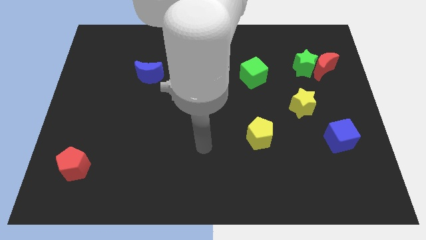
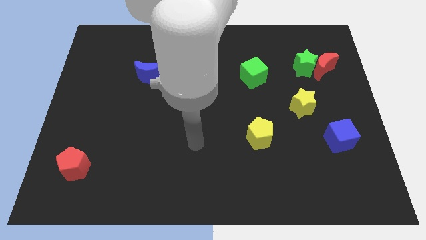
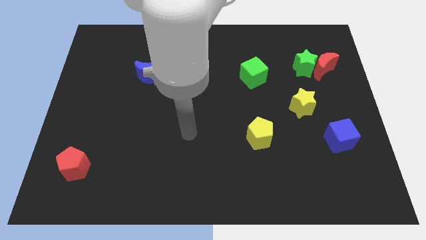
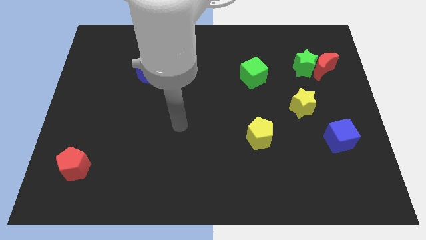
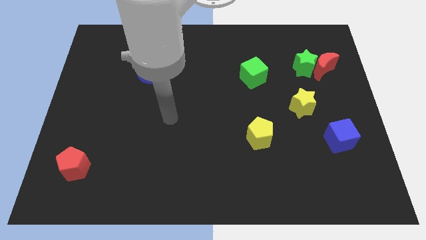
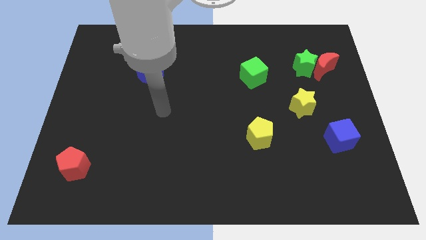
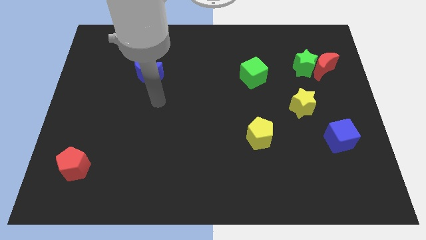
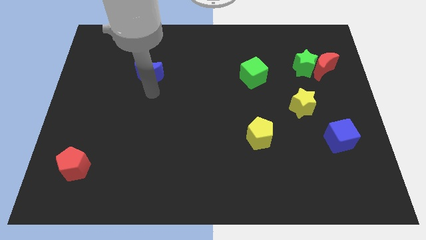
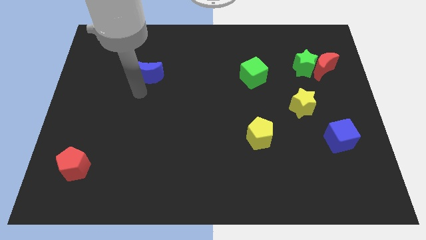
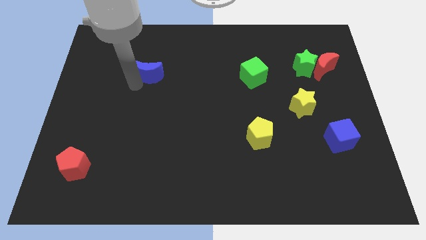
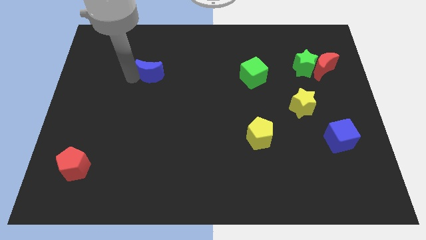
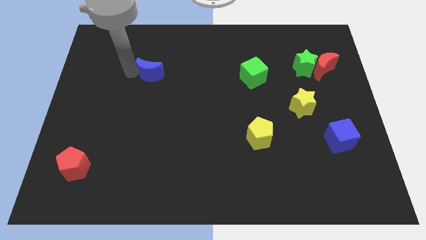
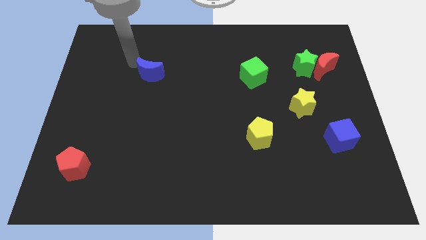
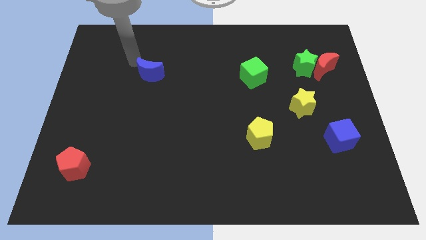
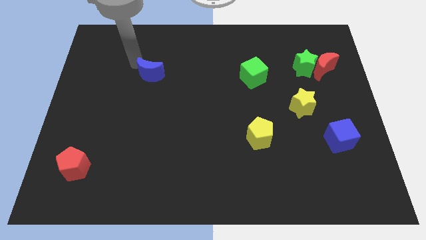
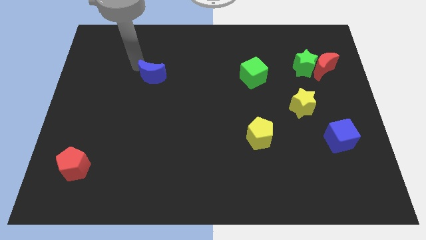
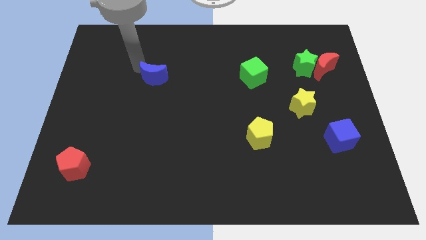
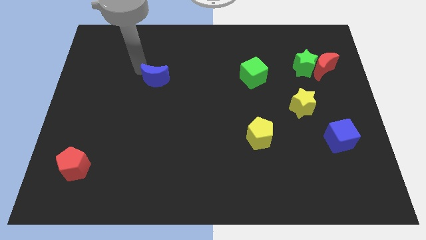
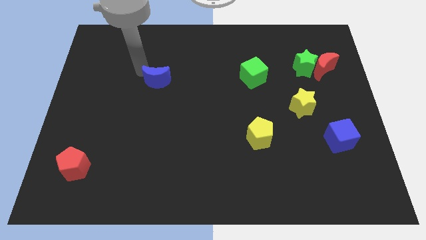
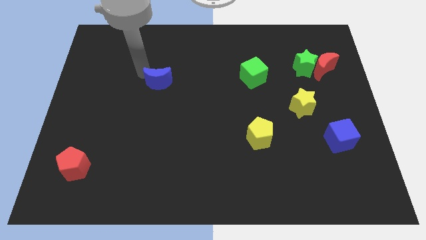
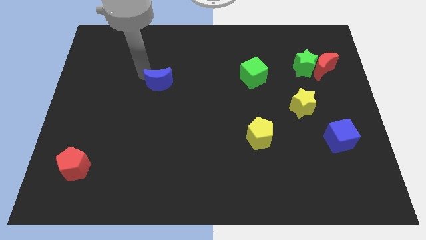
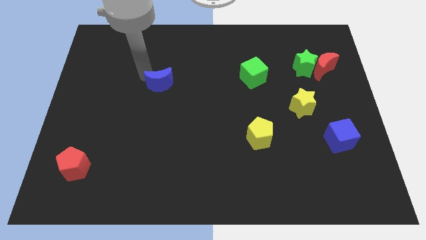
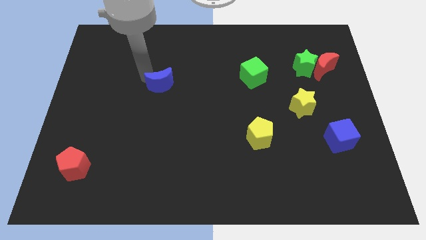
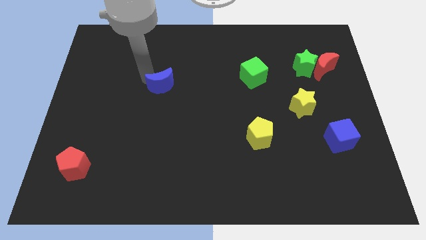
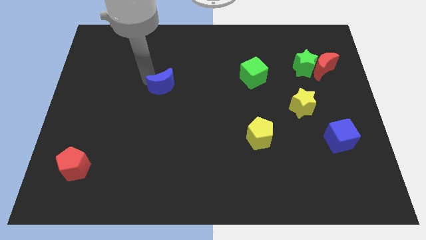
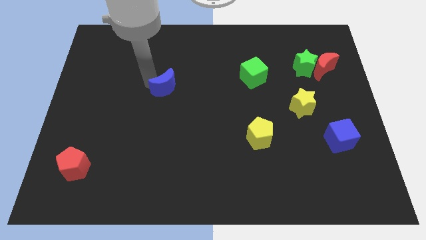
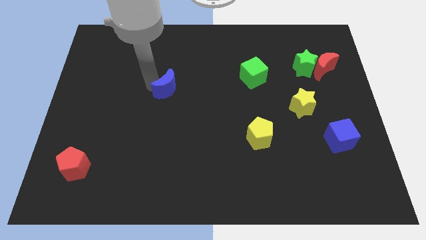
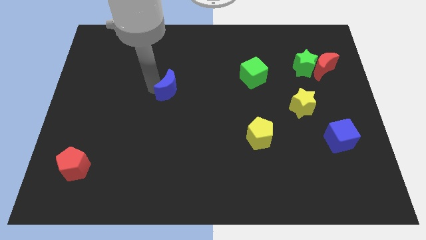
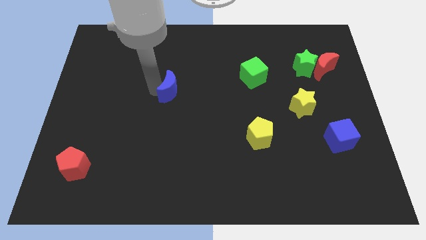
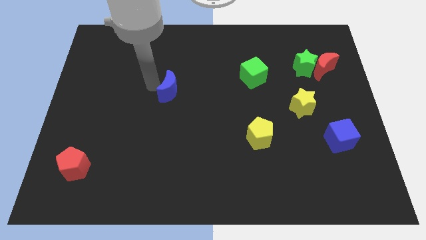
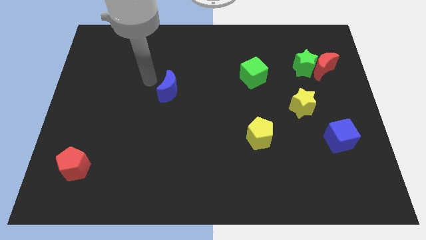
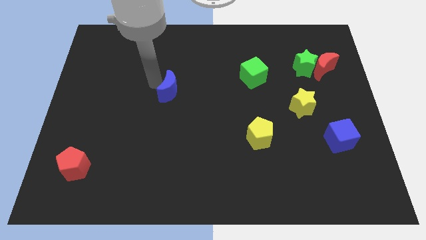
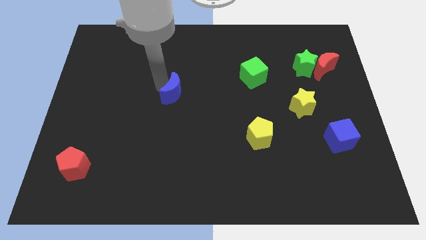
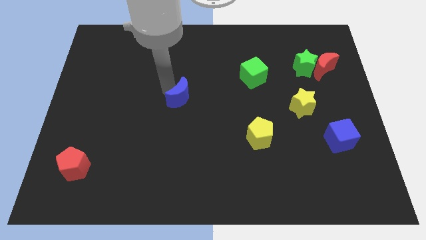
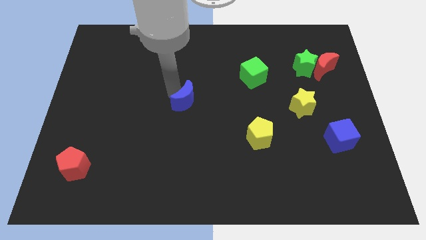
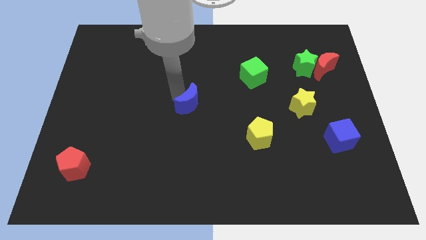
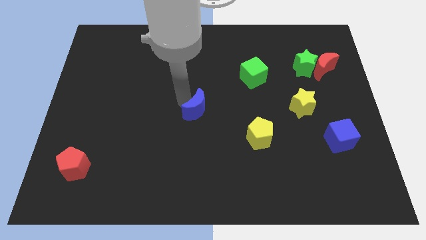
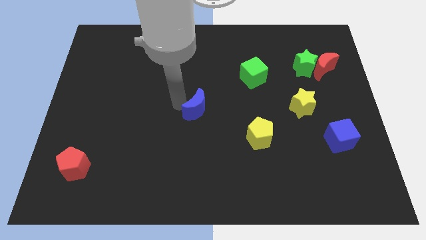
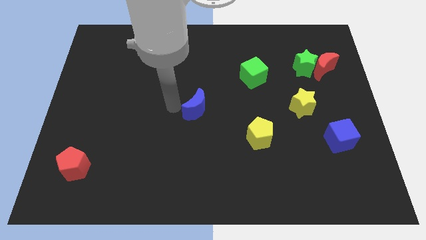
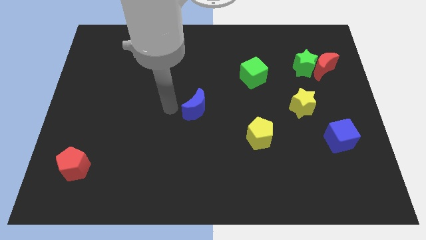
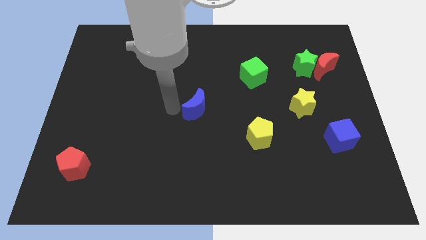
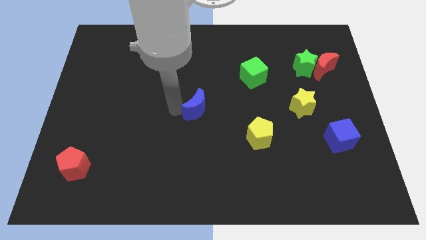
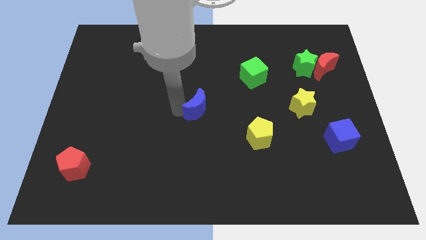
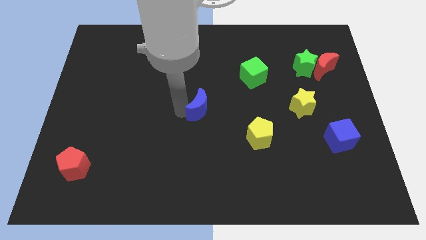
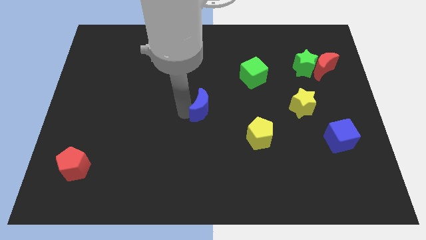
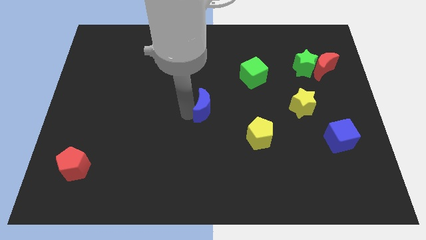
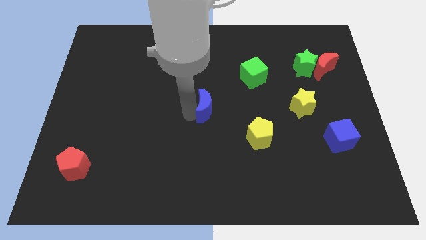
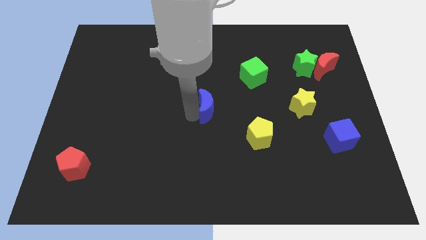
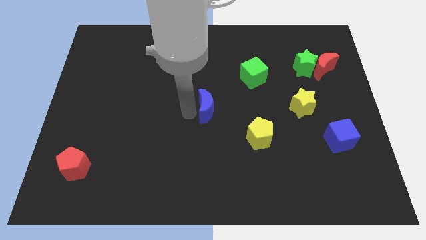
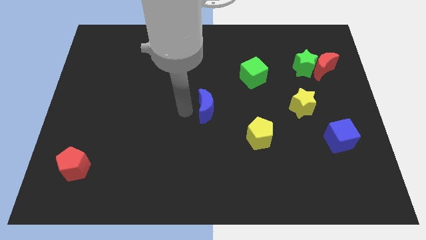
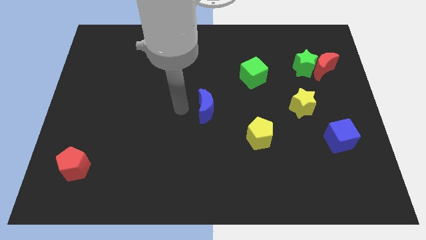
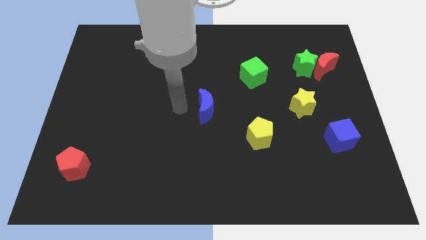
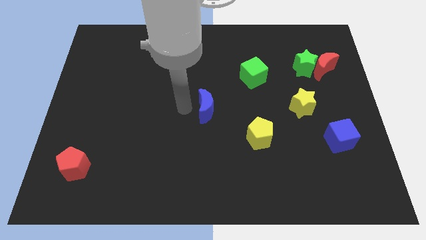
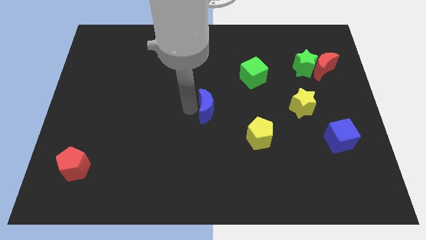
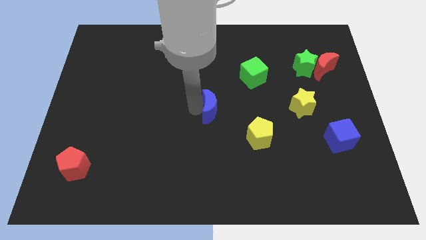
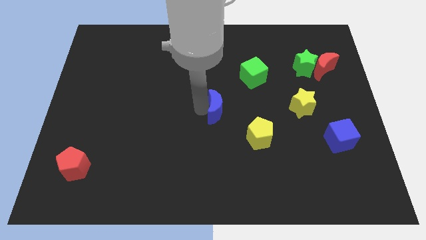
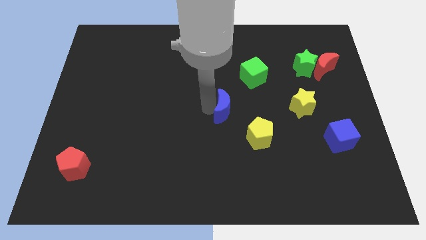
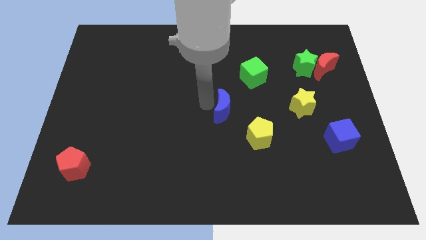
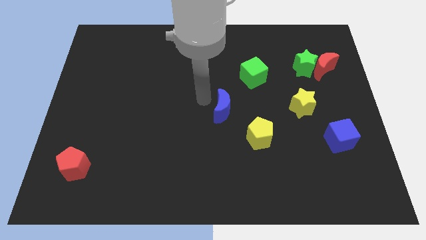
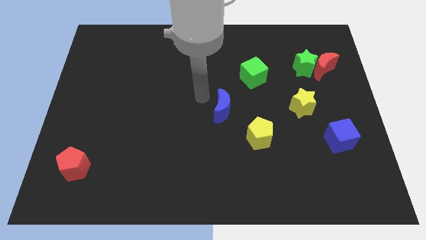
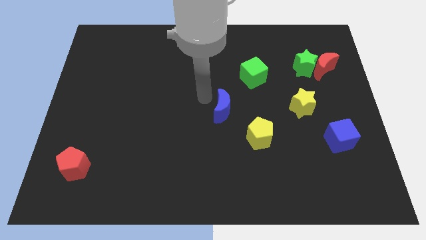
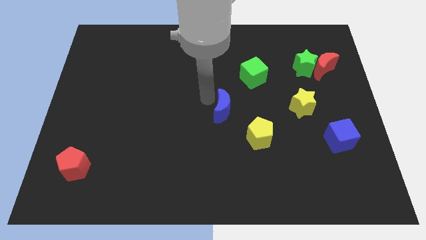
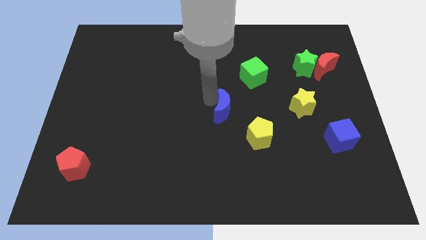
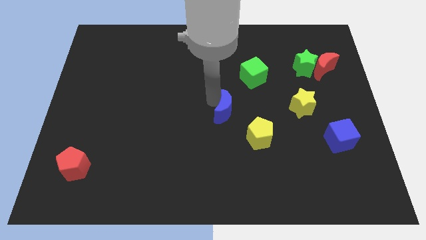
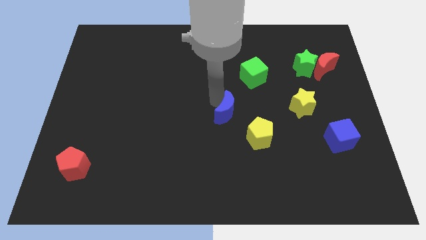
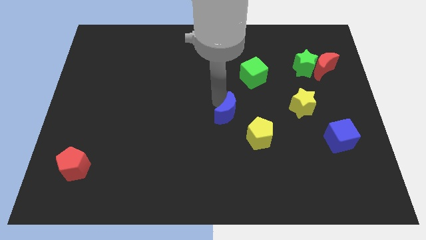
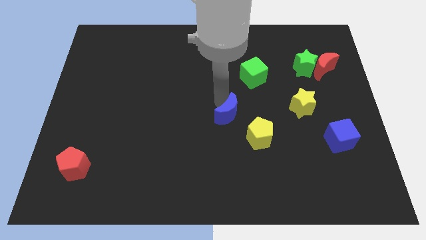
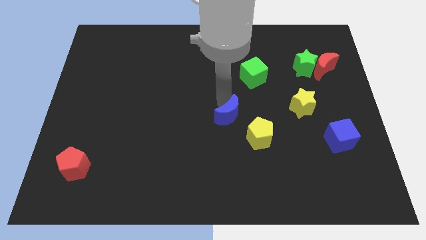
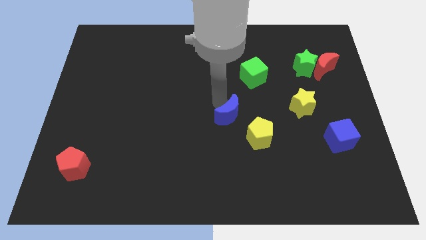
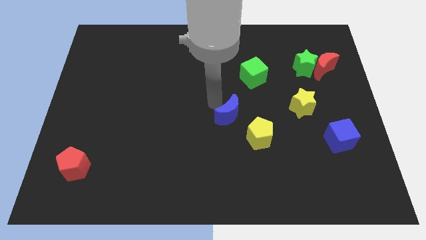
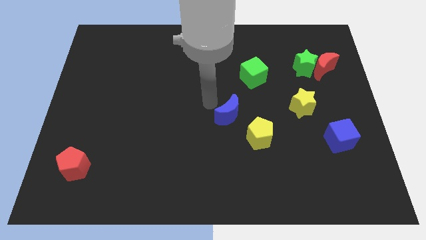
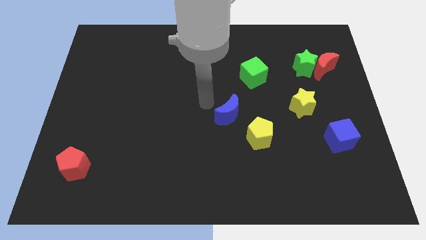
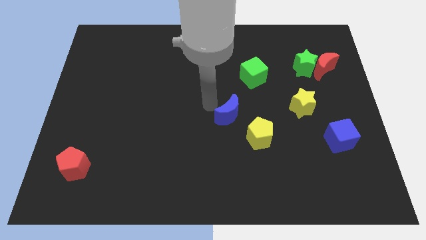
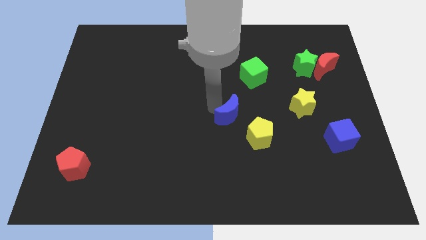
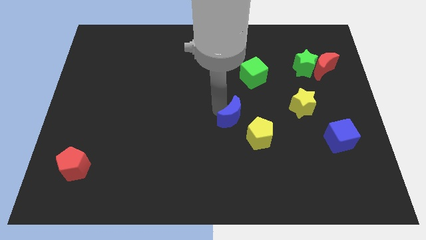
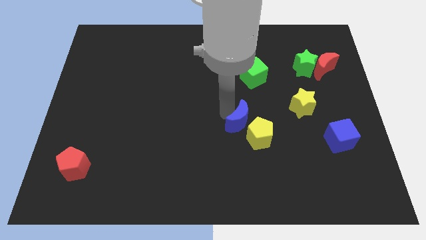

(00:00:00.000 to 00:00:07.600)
push the blue moon close to the yellow pentagon
